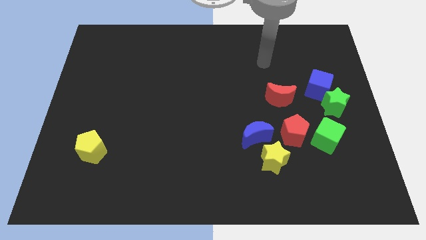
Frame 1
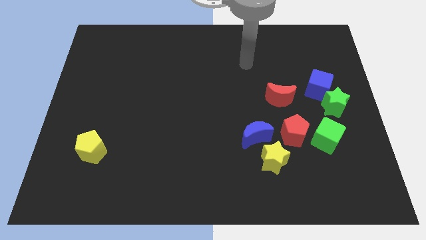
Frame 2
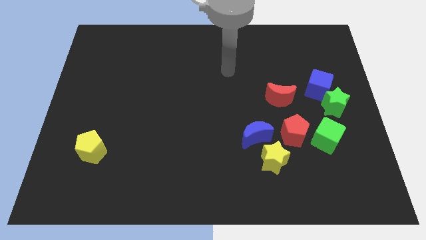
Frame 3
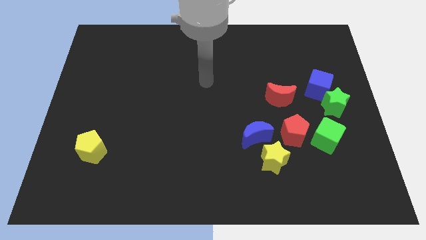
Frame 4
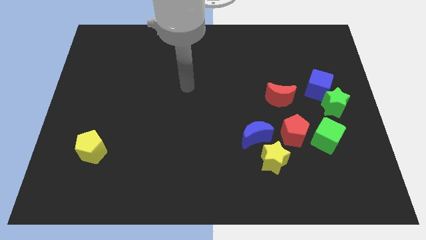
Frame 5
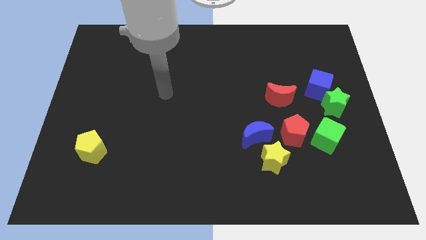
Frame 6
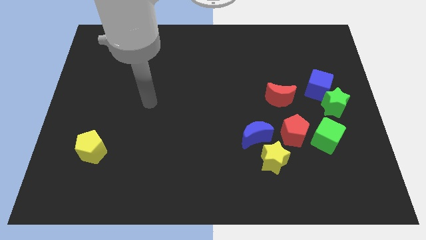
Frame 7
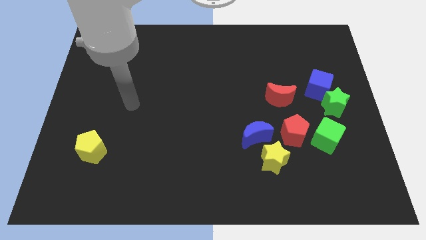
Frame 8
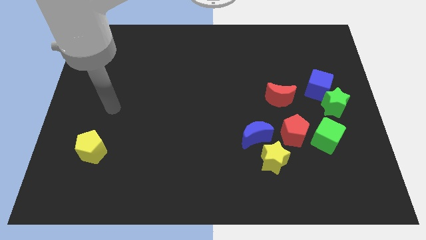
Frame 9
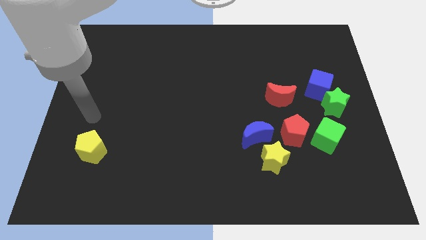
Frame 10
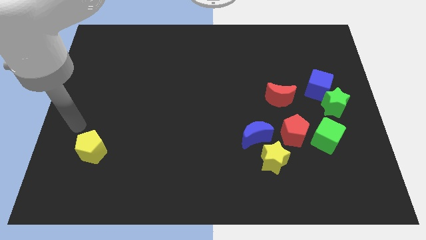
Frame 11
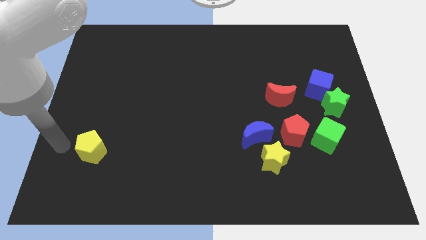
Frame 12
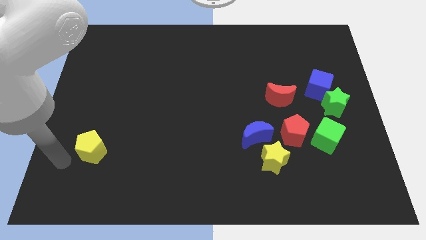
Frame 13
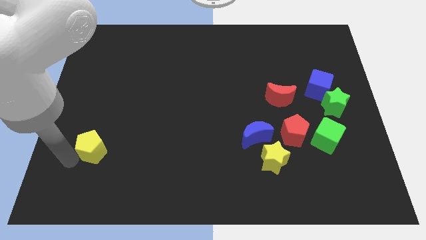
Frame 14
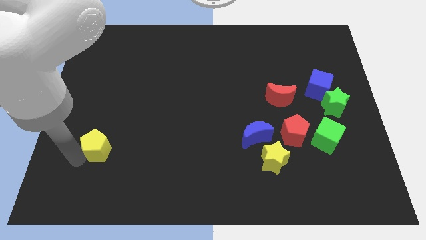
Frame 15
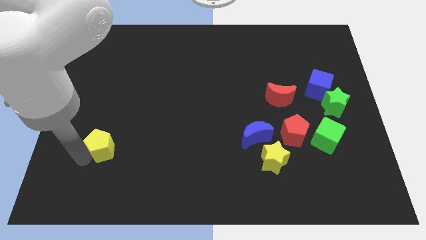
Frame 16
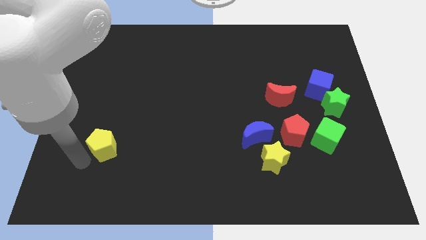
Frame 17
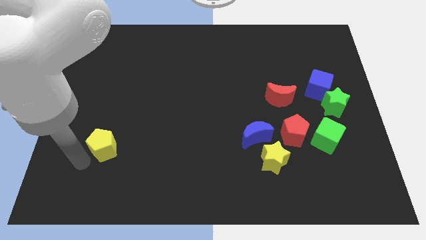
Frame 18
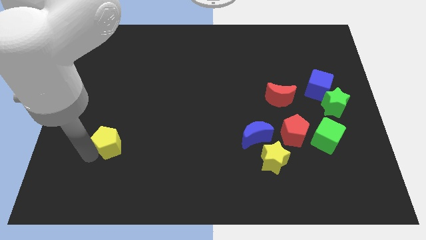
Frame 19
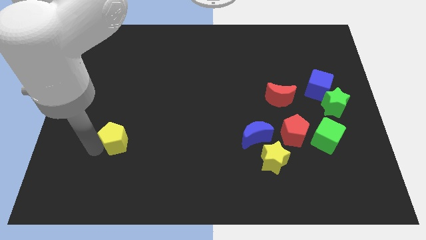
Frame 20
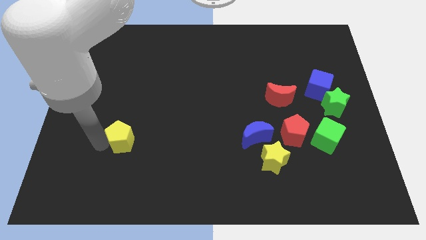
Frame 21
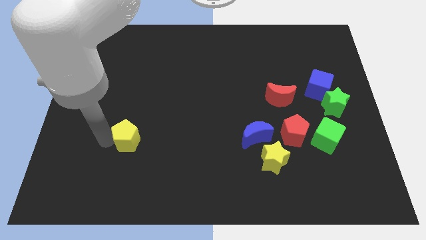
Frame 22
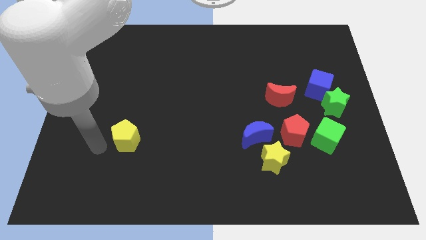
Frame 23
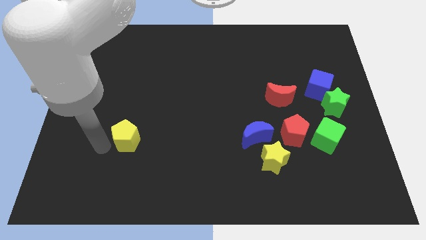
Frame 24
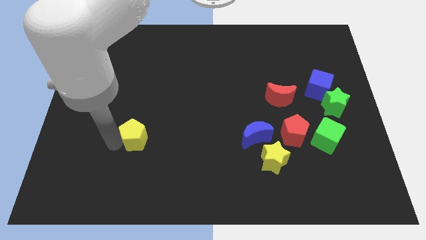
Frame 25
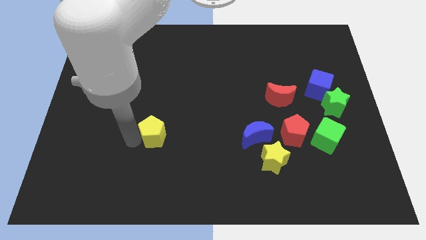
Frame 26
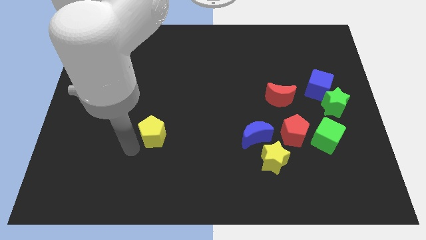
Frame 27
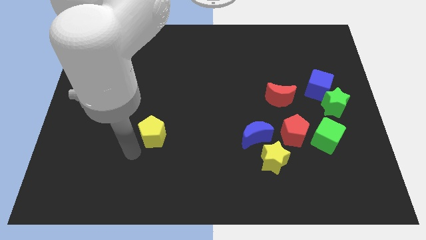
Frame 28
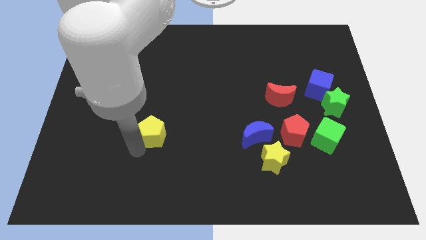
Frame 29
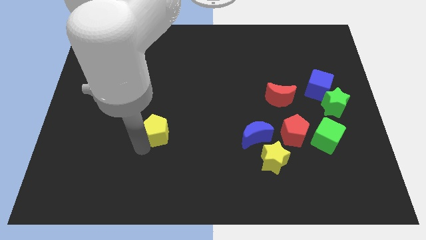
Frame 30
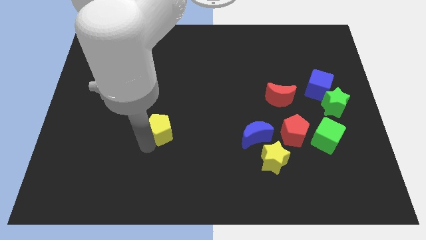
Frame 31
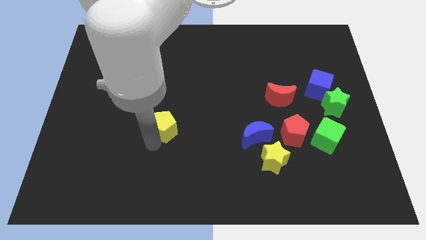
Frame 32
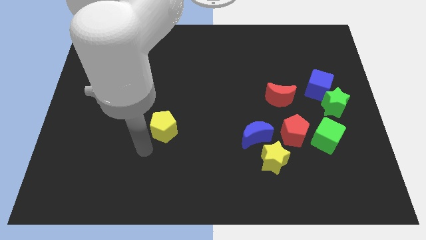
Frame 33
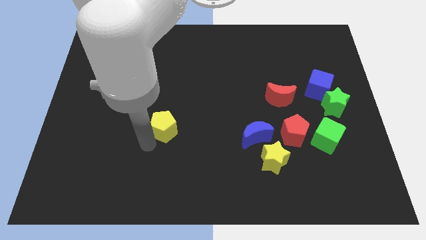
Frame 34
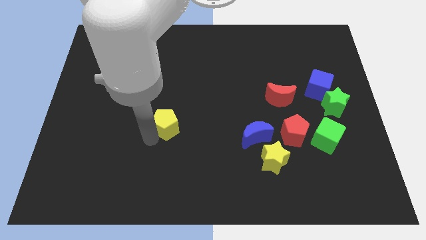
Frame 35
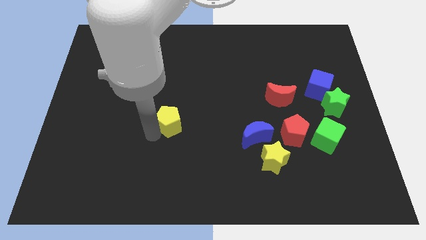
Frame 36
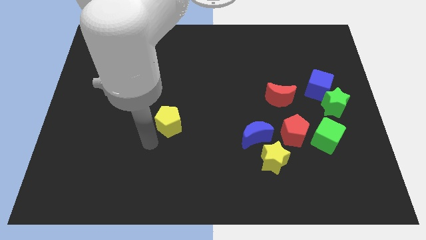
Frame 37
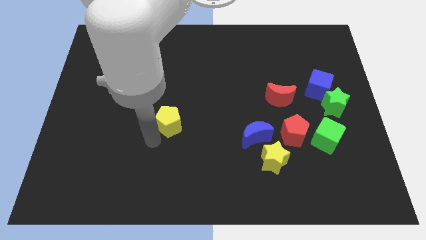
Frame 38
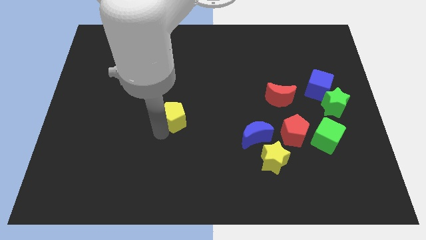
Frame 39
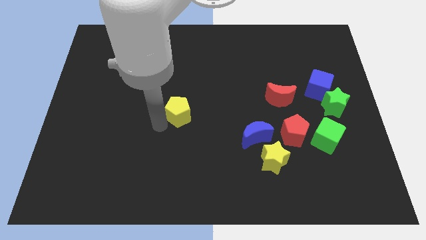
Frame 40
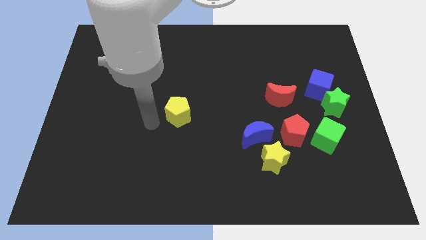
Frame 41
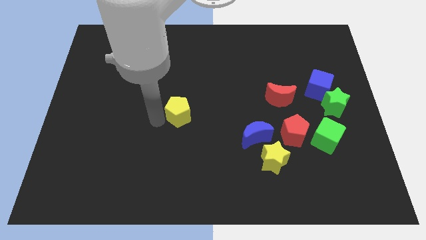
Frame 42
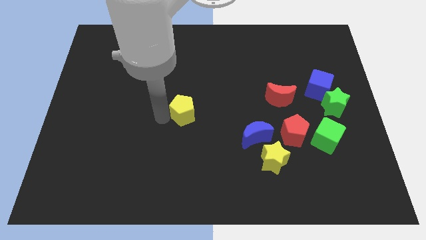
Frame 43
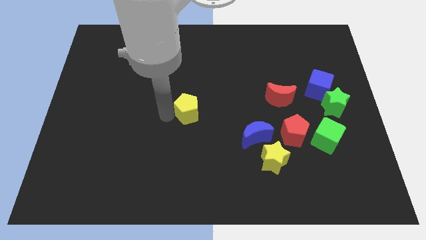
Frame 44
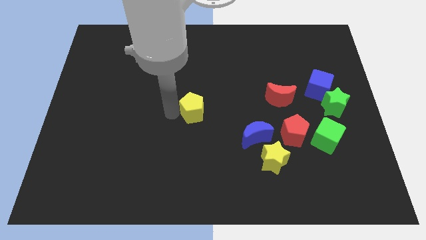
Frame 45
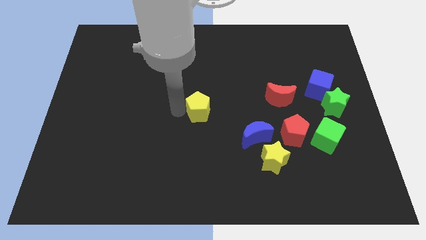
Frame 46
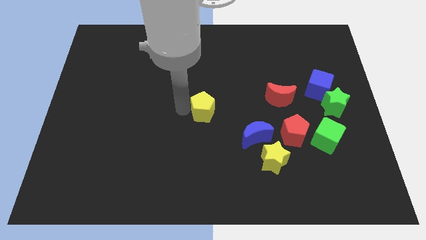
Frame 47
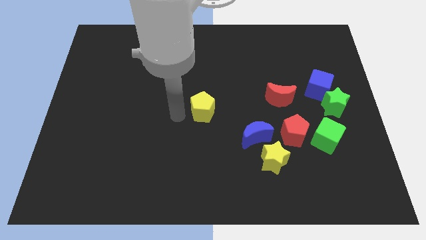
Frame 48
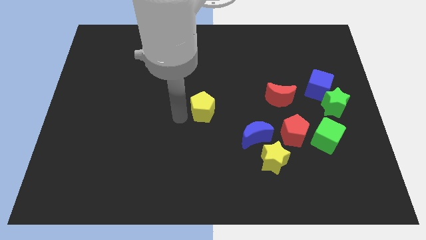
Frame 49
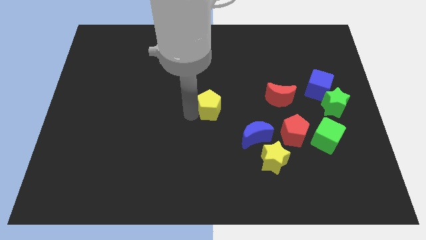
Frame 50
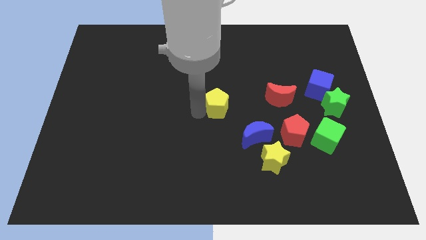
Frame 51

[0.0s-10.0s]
push the yellow pentagon to the left side of the red moon

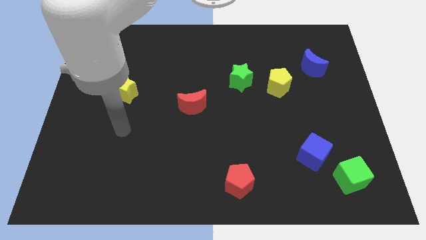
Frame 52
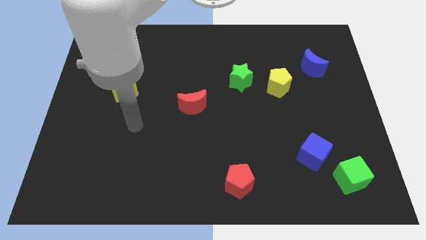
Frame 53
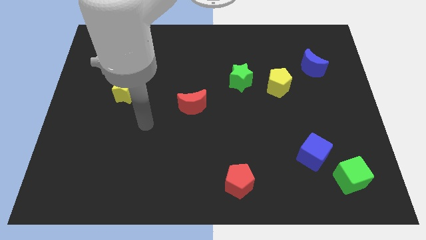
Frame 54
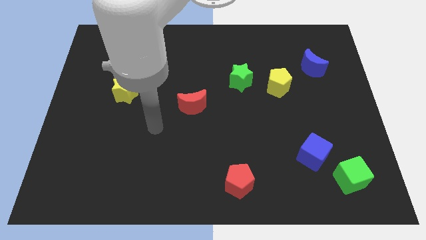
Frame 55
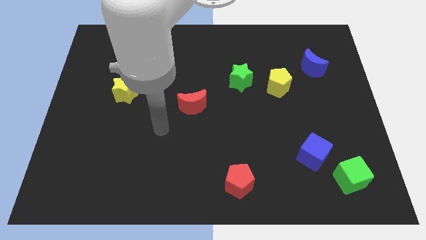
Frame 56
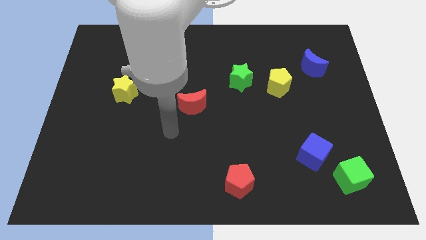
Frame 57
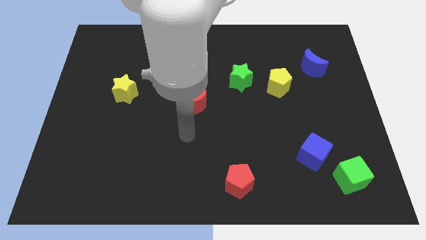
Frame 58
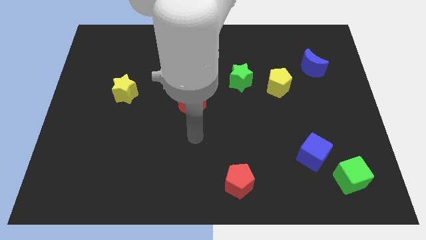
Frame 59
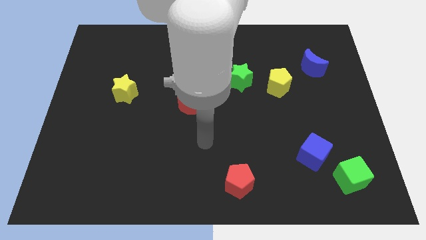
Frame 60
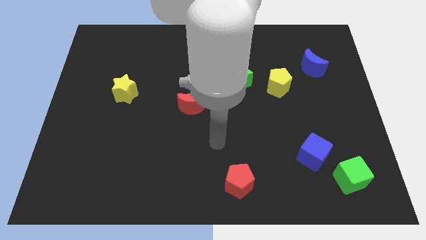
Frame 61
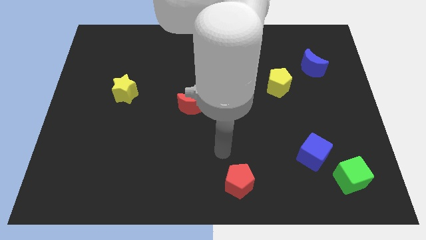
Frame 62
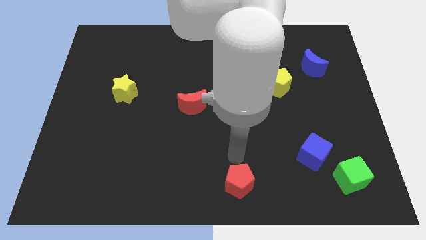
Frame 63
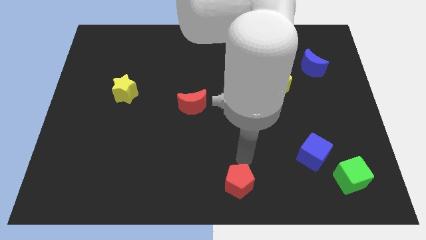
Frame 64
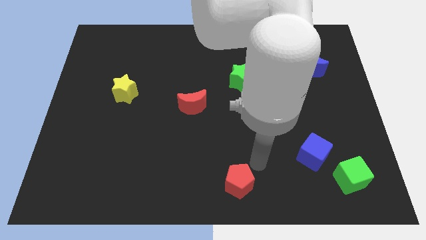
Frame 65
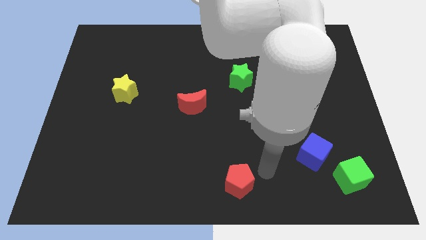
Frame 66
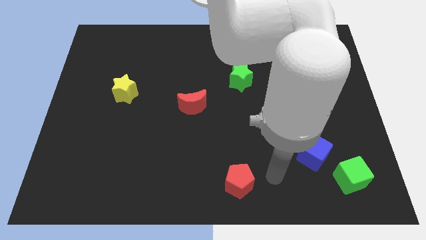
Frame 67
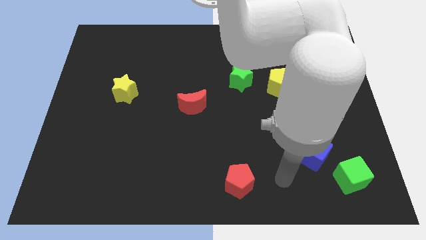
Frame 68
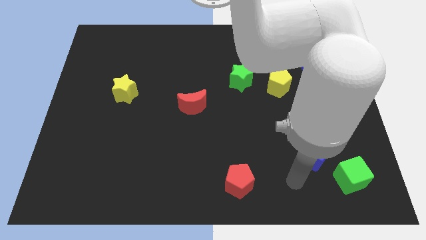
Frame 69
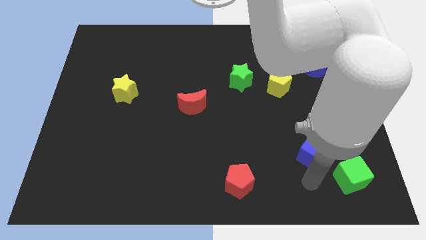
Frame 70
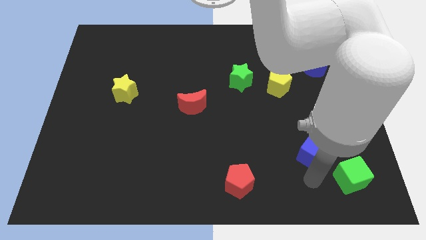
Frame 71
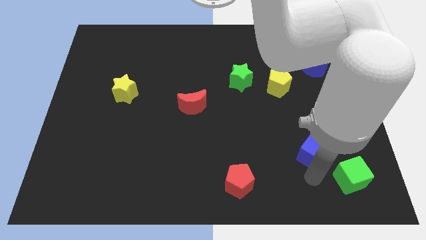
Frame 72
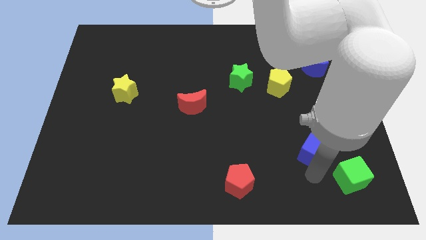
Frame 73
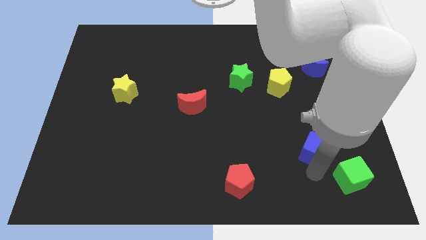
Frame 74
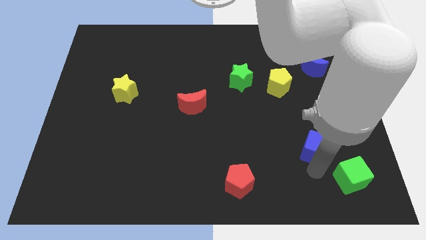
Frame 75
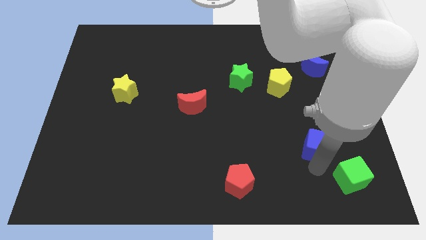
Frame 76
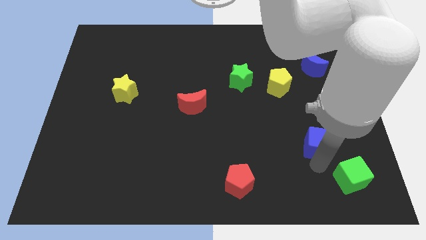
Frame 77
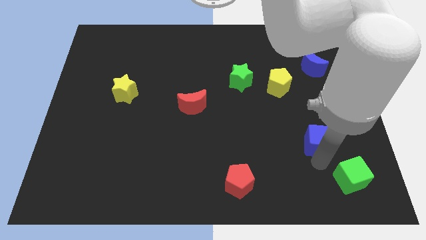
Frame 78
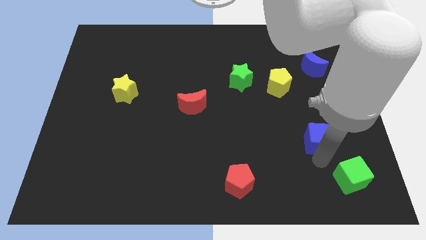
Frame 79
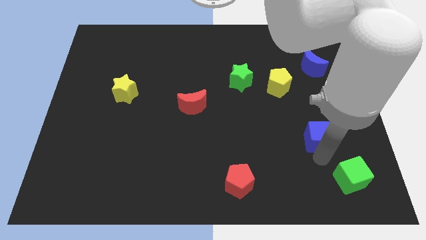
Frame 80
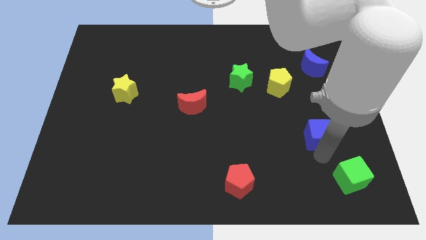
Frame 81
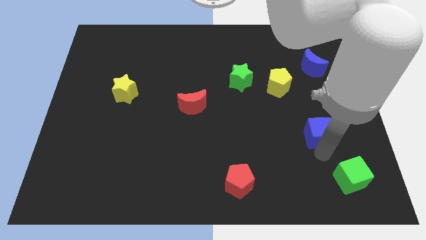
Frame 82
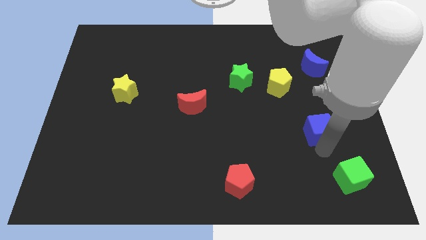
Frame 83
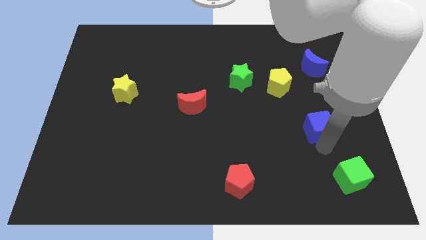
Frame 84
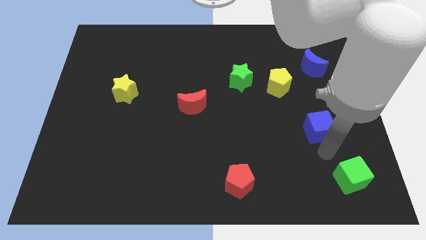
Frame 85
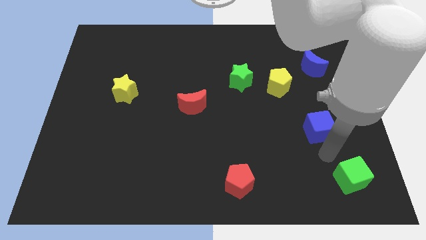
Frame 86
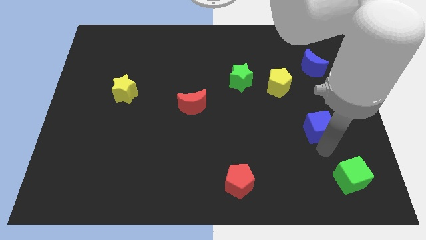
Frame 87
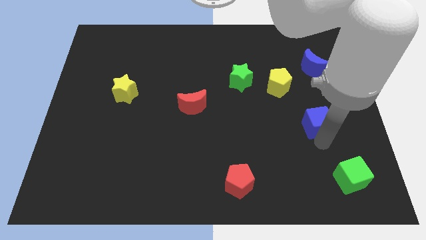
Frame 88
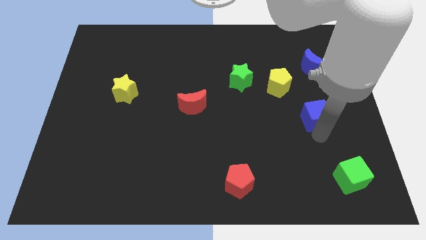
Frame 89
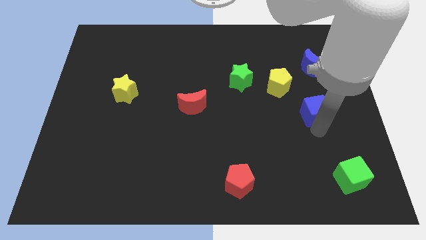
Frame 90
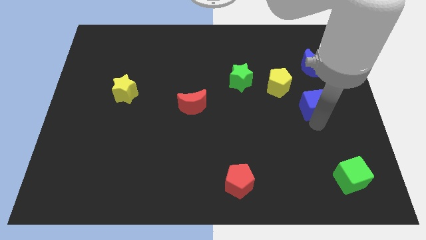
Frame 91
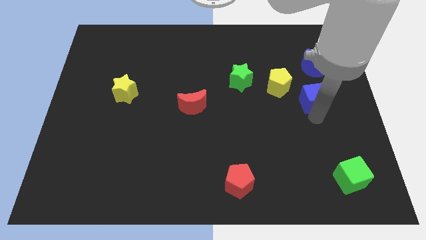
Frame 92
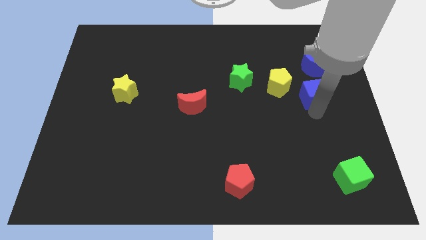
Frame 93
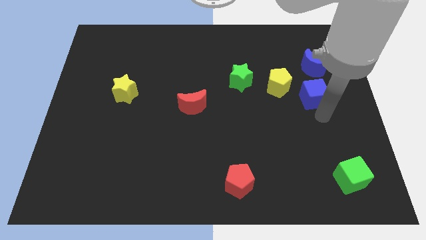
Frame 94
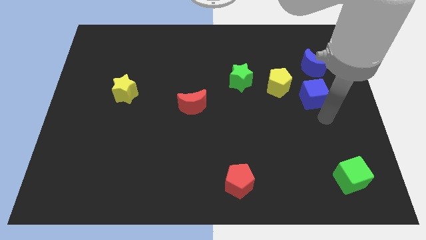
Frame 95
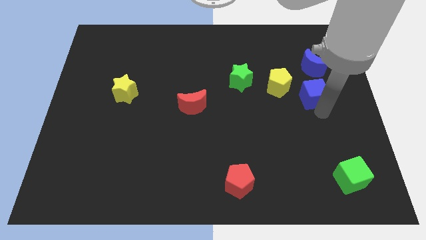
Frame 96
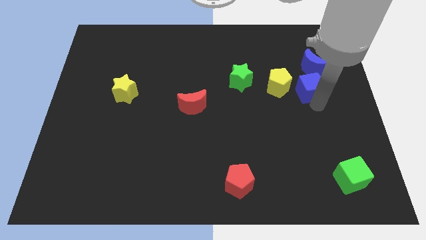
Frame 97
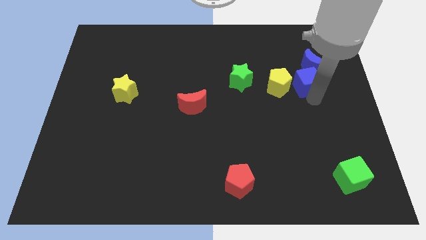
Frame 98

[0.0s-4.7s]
slide the blue cube to the top right side of the yellow pentagon
